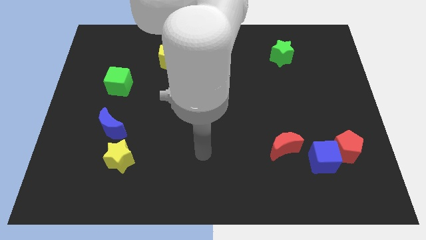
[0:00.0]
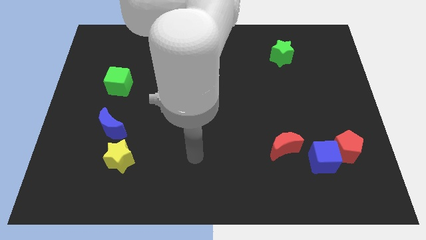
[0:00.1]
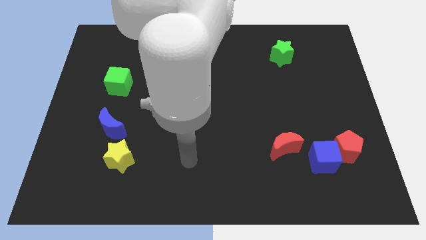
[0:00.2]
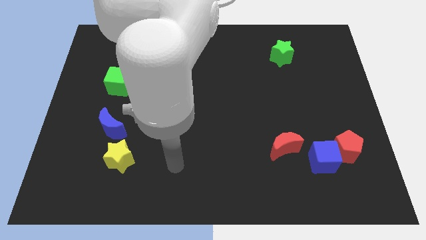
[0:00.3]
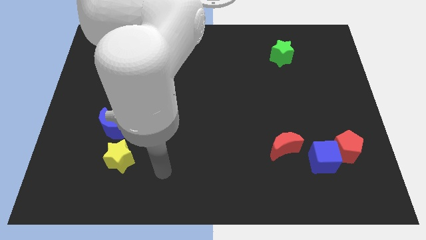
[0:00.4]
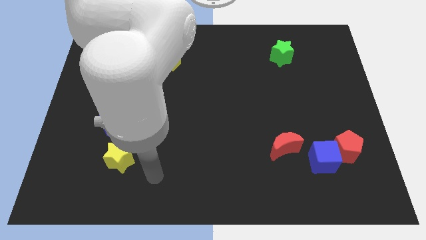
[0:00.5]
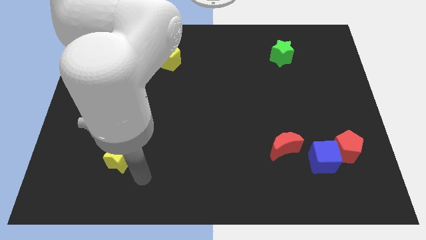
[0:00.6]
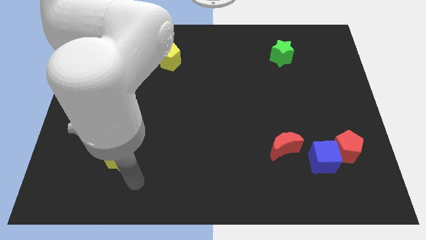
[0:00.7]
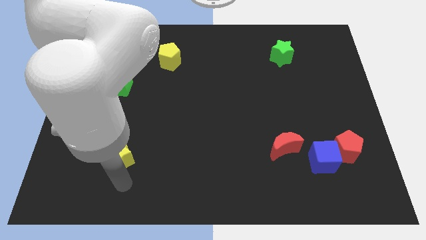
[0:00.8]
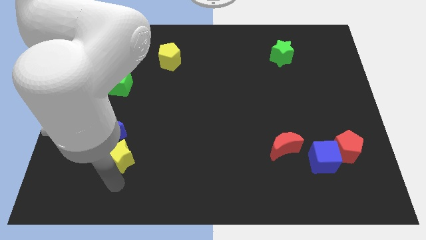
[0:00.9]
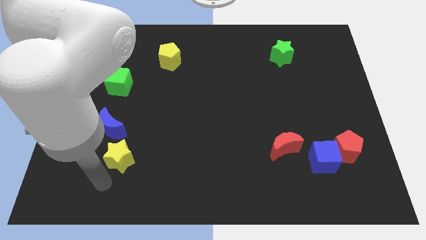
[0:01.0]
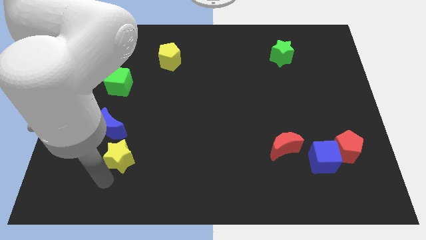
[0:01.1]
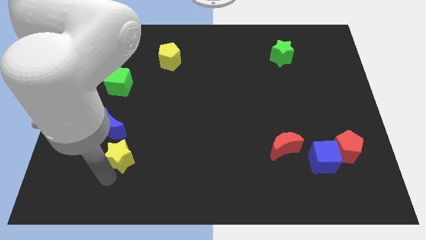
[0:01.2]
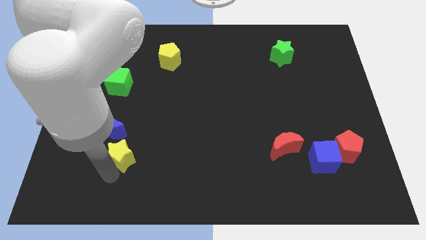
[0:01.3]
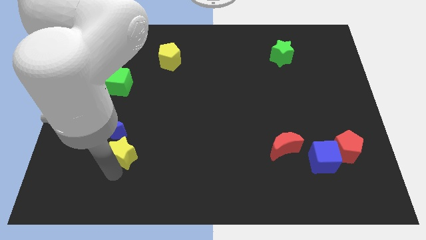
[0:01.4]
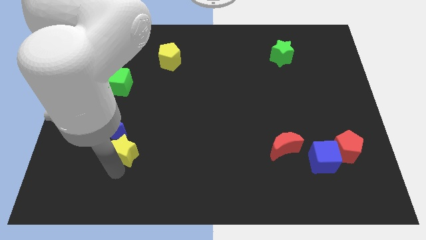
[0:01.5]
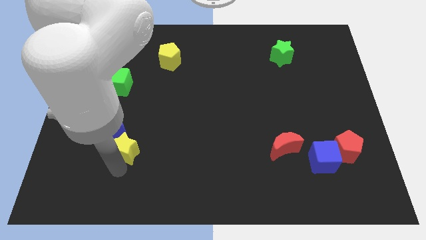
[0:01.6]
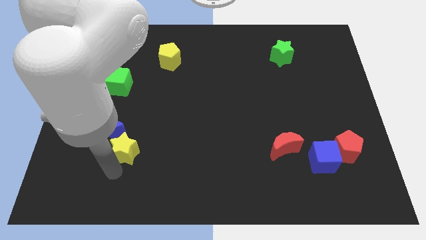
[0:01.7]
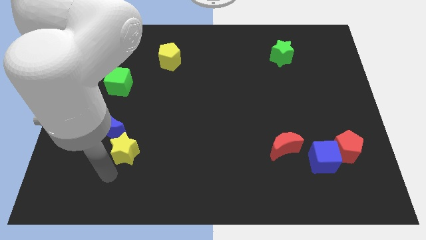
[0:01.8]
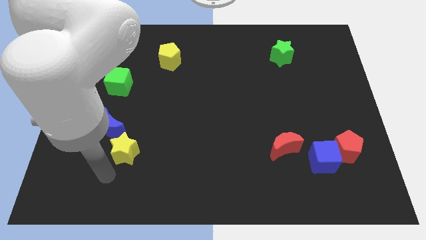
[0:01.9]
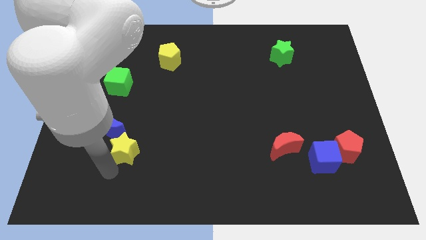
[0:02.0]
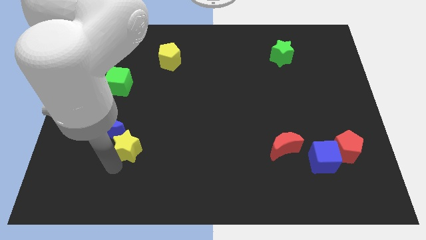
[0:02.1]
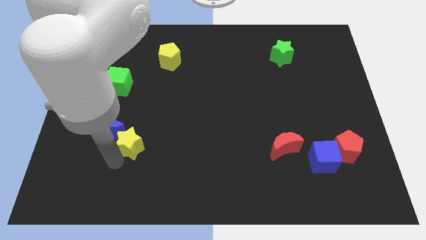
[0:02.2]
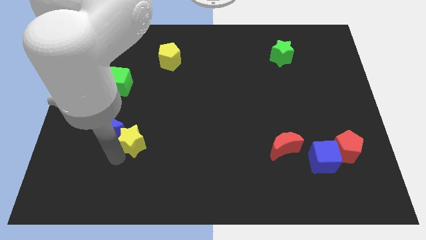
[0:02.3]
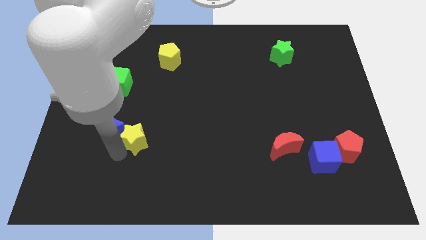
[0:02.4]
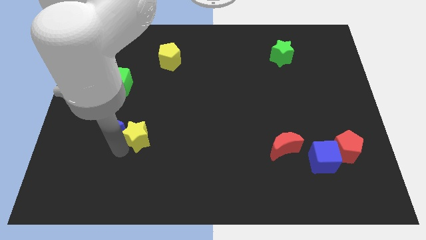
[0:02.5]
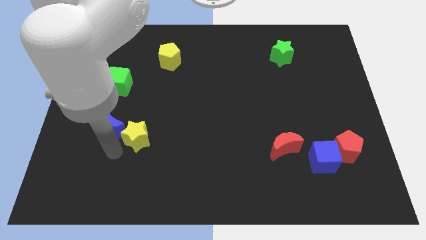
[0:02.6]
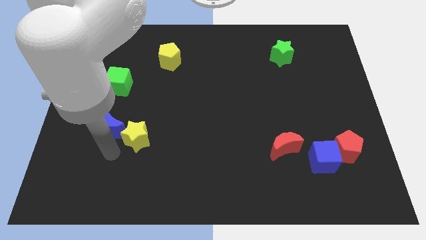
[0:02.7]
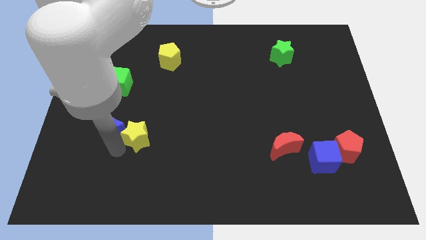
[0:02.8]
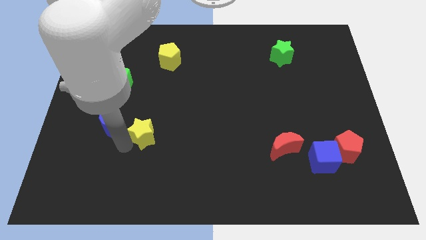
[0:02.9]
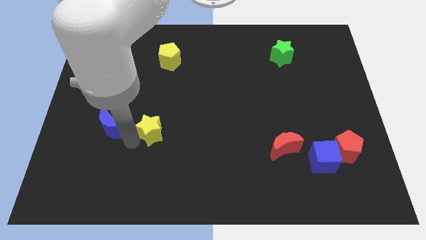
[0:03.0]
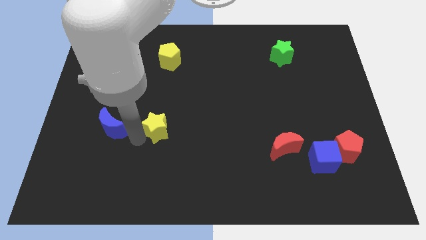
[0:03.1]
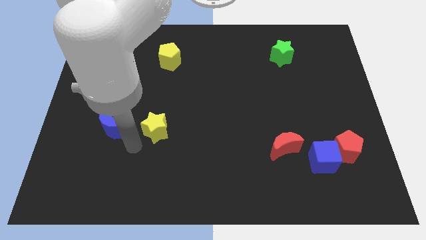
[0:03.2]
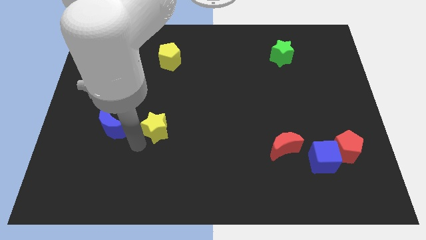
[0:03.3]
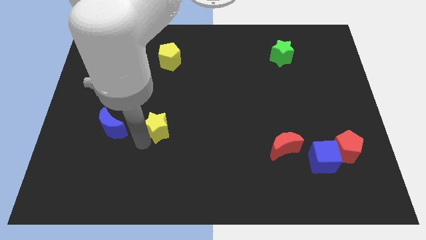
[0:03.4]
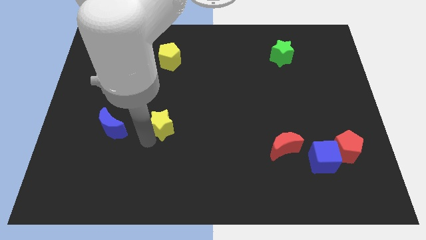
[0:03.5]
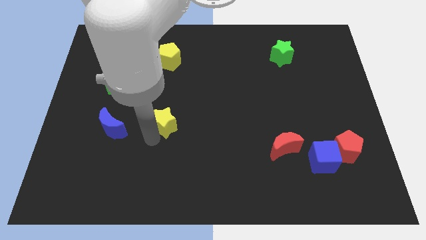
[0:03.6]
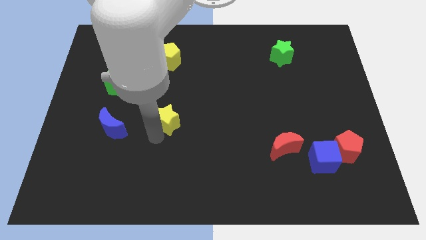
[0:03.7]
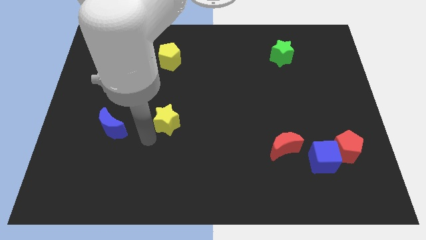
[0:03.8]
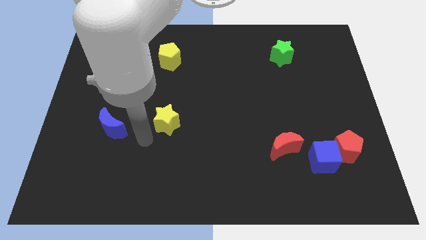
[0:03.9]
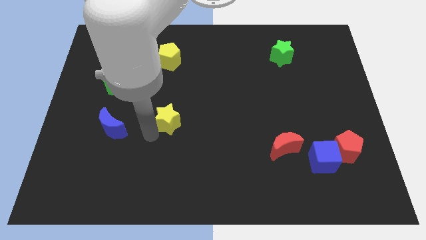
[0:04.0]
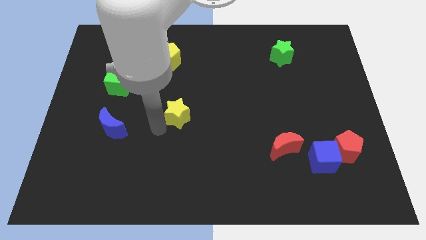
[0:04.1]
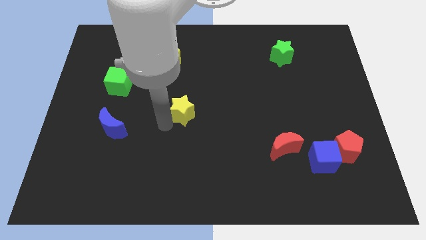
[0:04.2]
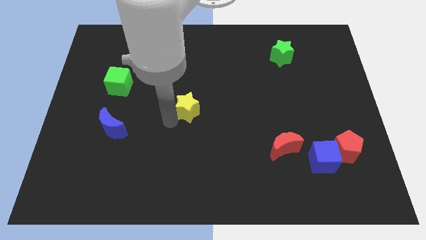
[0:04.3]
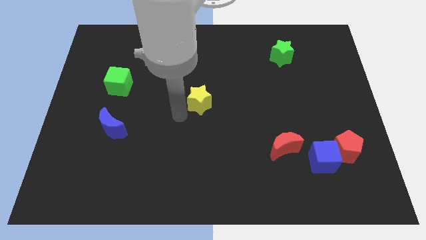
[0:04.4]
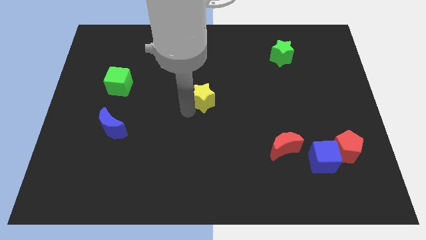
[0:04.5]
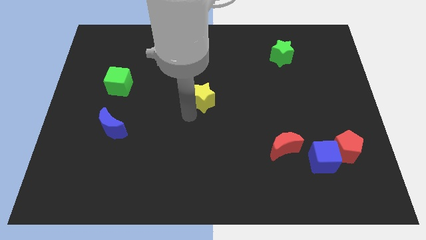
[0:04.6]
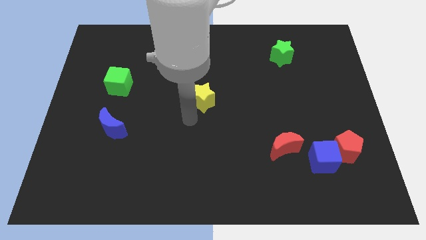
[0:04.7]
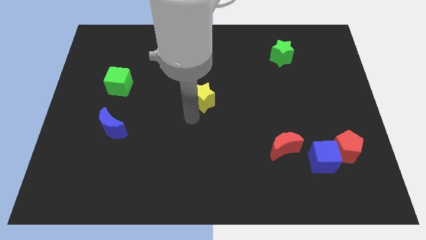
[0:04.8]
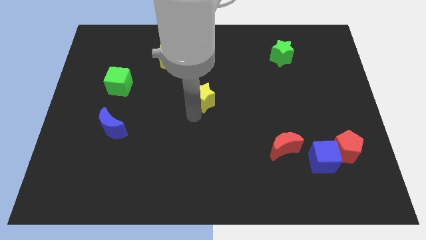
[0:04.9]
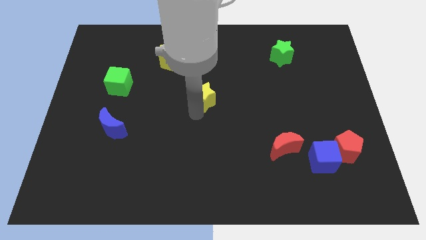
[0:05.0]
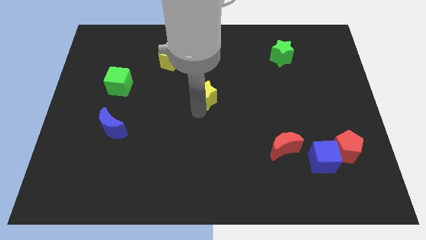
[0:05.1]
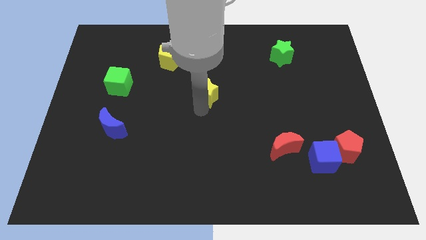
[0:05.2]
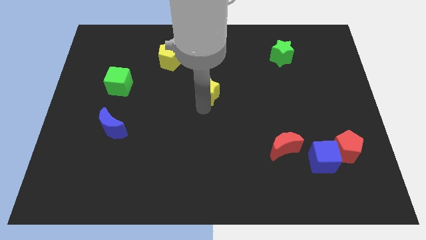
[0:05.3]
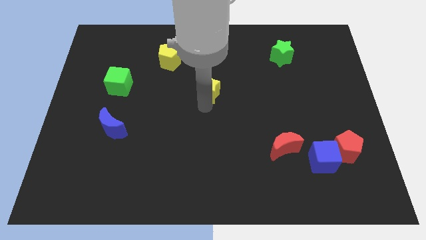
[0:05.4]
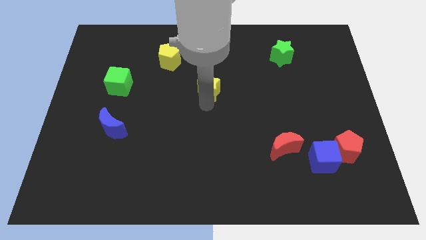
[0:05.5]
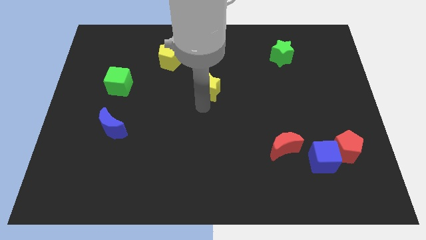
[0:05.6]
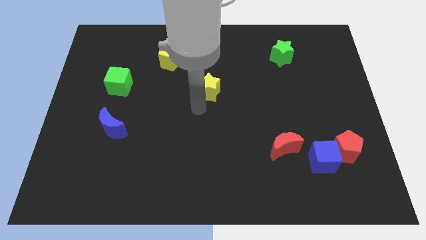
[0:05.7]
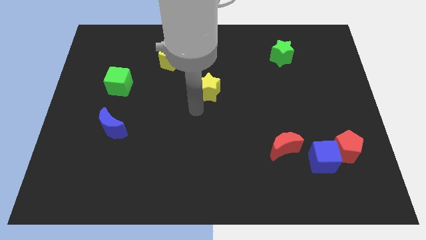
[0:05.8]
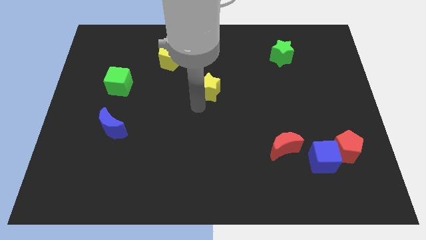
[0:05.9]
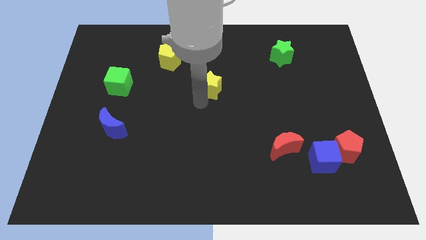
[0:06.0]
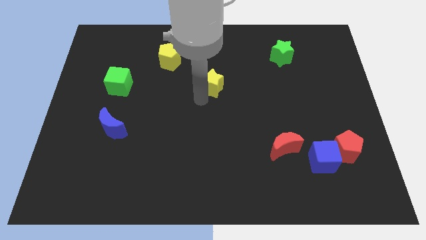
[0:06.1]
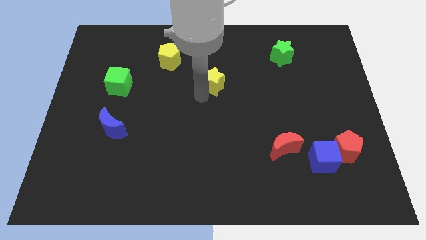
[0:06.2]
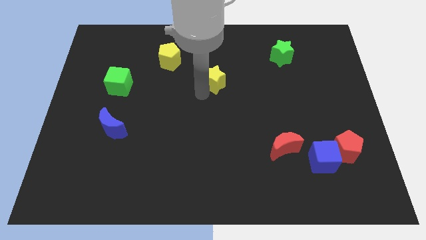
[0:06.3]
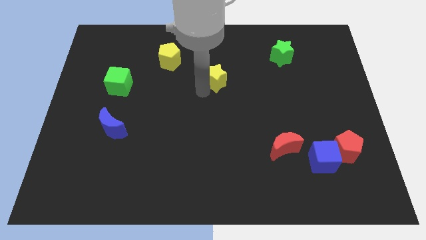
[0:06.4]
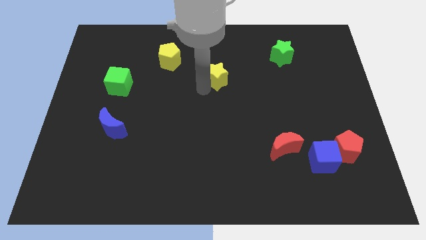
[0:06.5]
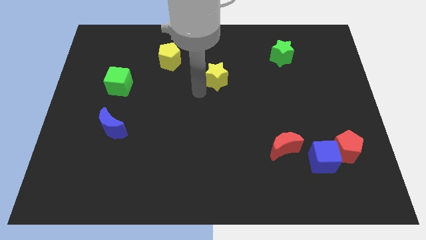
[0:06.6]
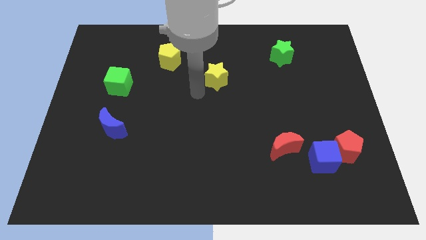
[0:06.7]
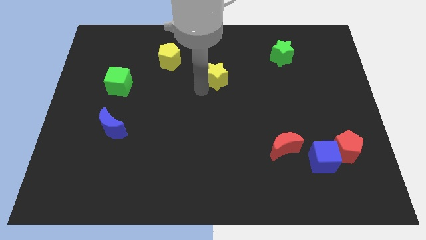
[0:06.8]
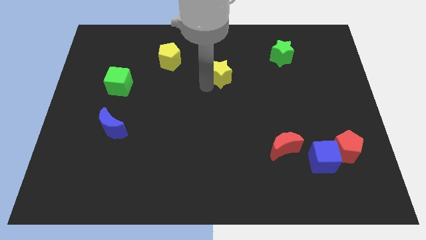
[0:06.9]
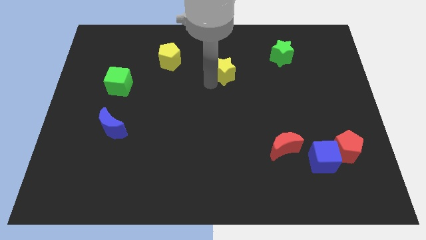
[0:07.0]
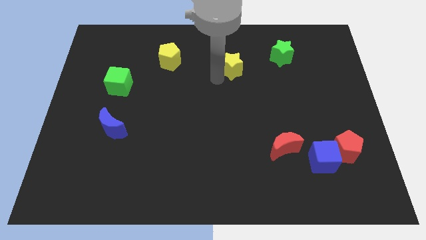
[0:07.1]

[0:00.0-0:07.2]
put the yellow star to the left of the green star
